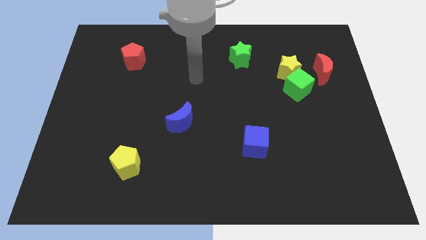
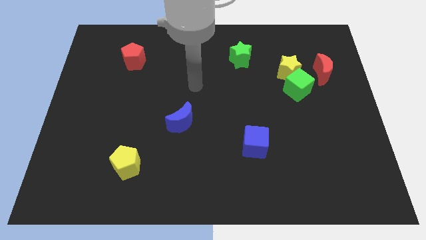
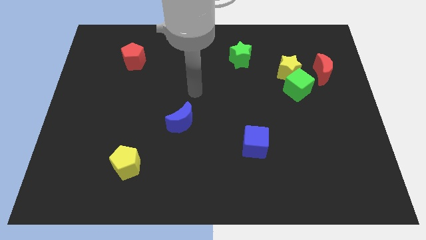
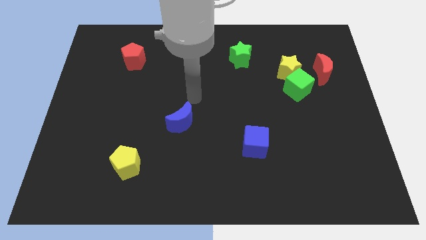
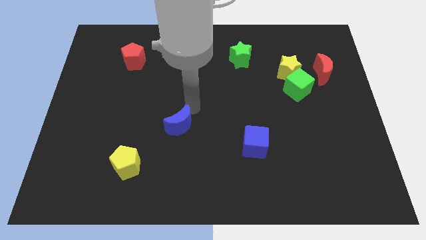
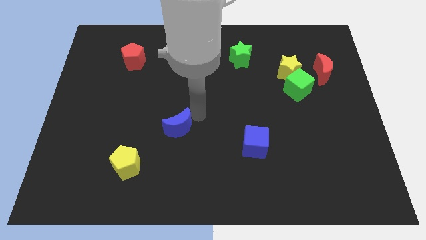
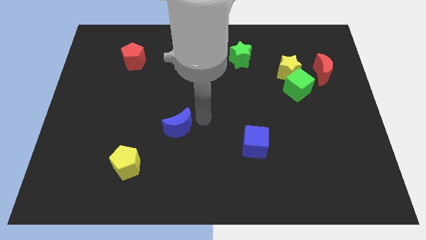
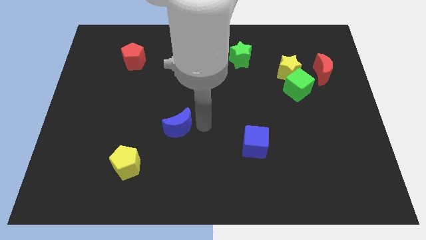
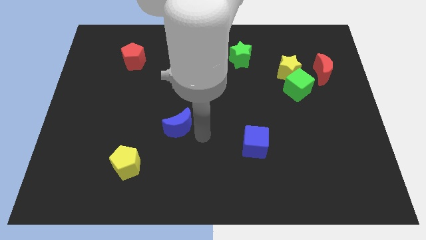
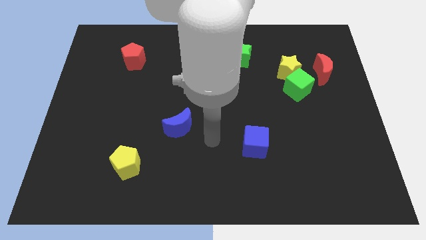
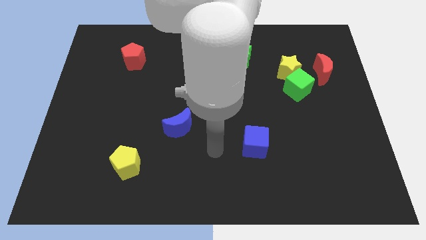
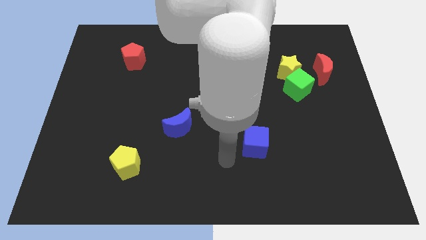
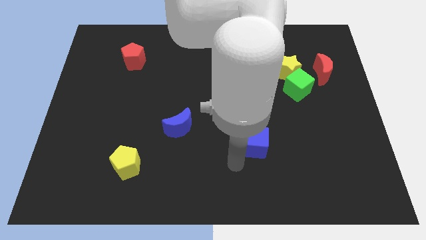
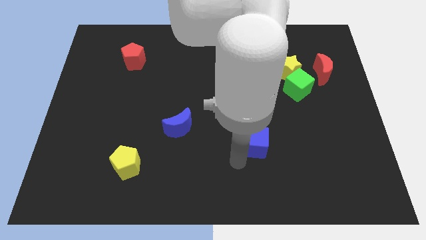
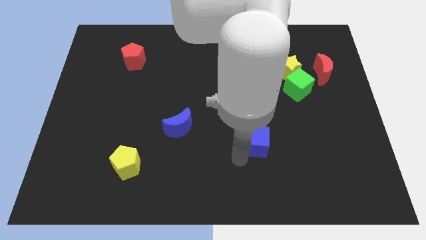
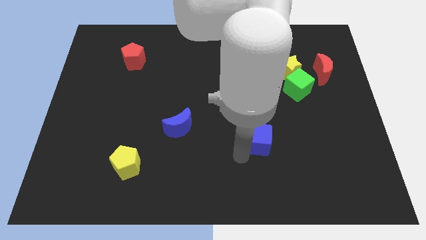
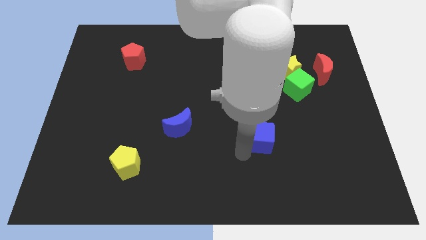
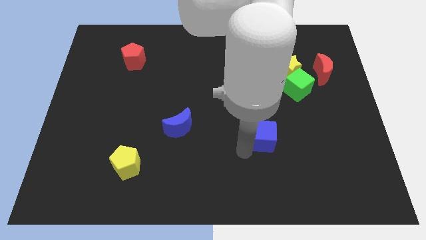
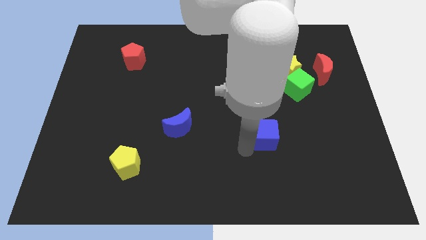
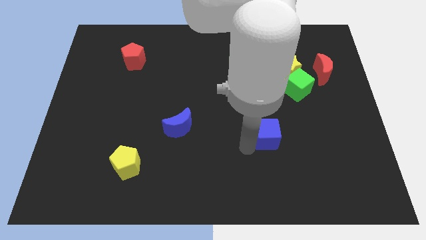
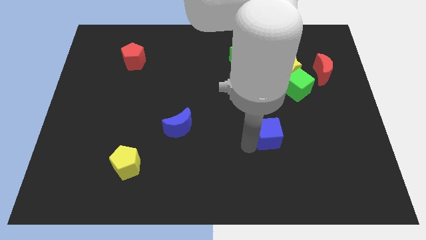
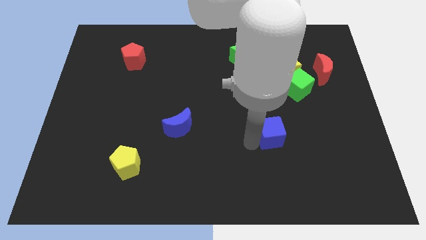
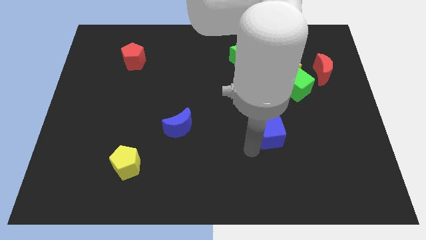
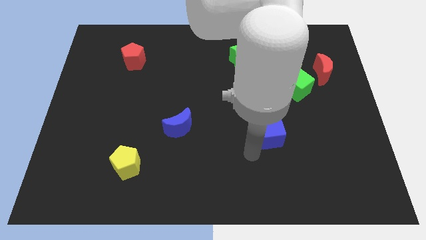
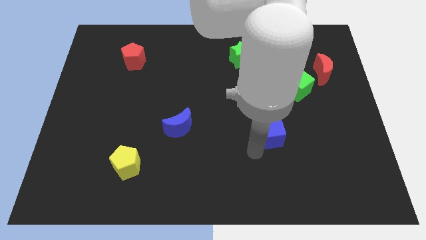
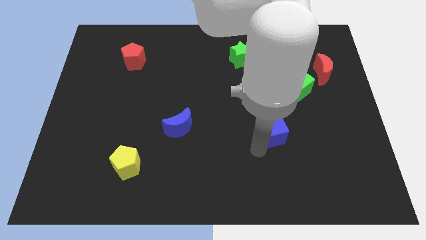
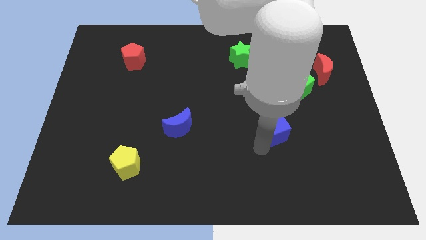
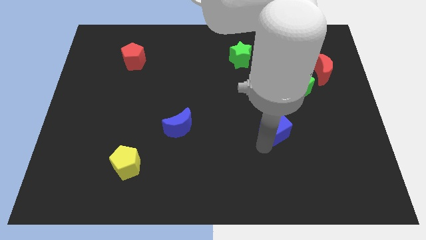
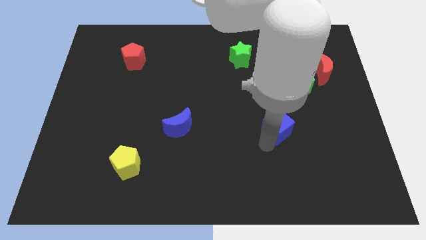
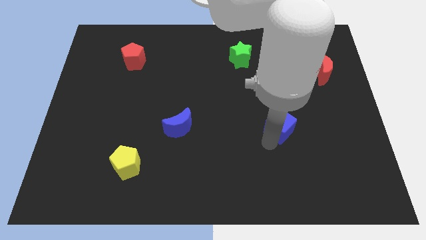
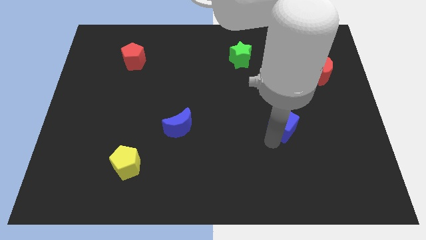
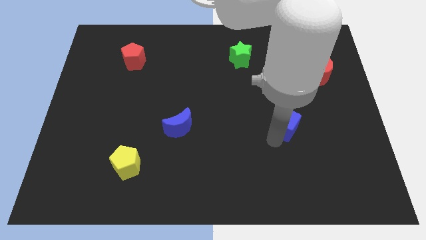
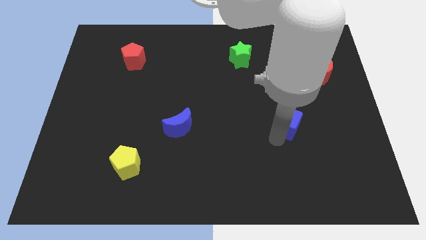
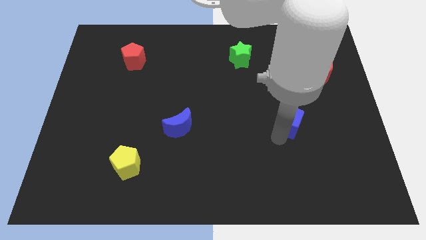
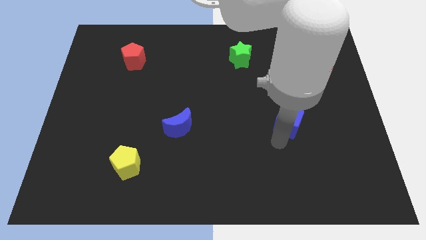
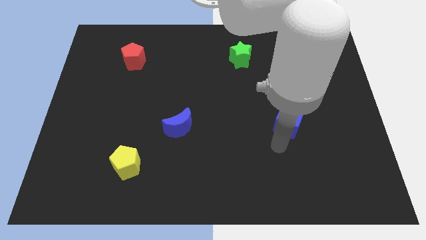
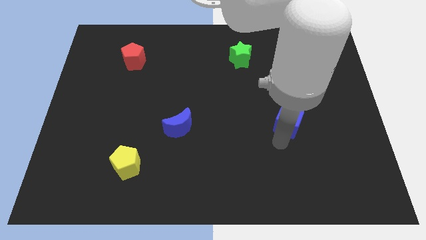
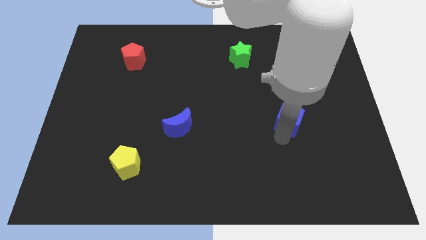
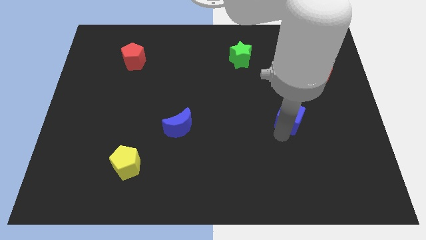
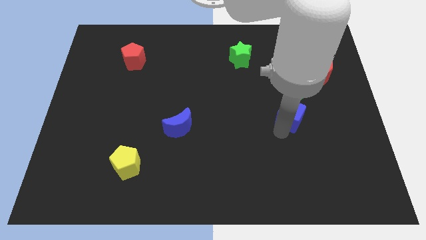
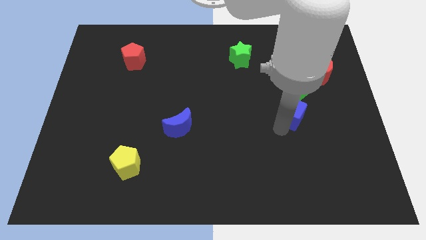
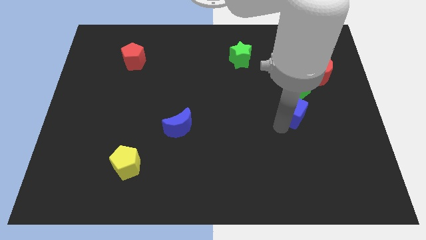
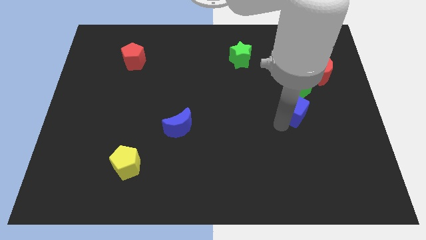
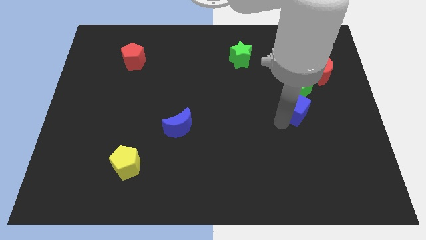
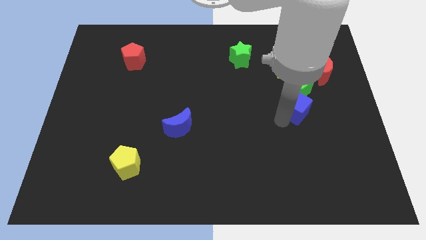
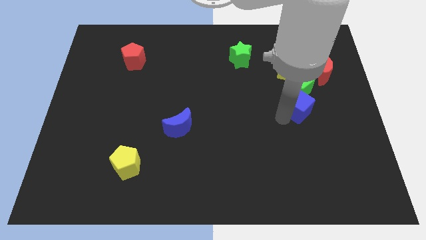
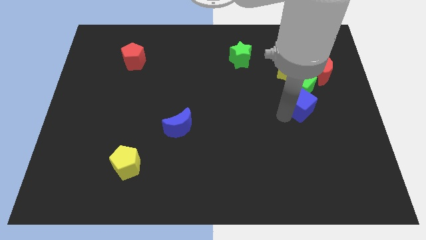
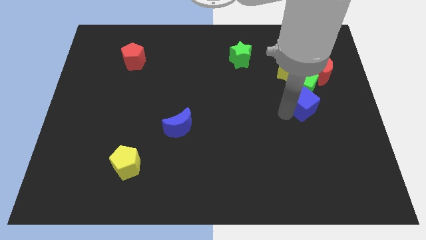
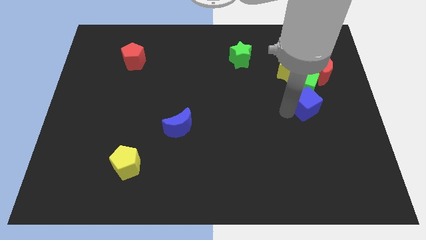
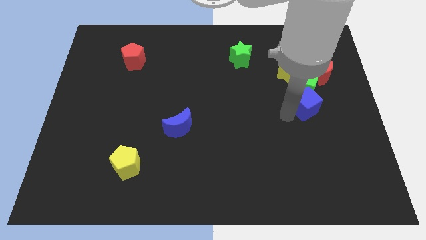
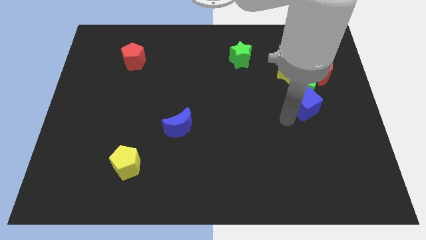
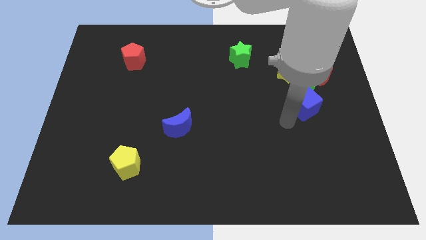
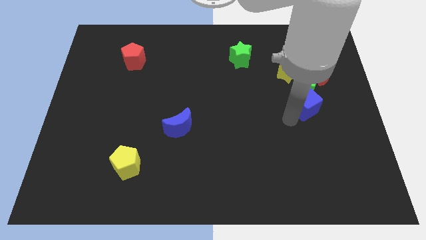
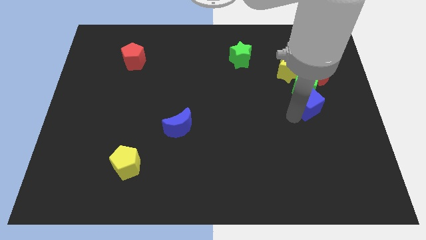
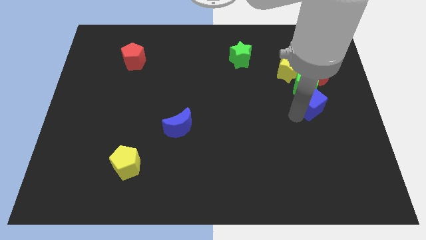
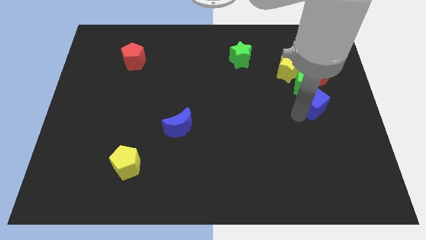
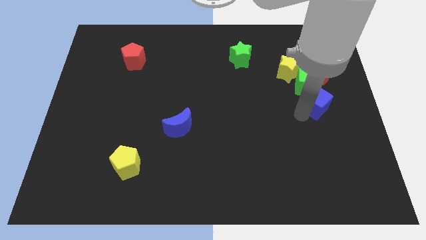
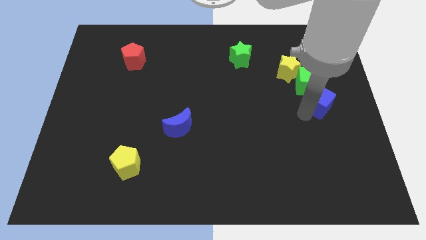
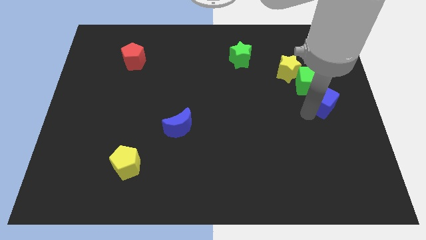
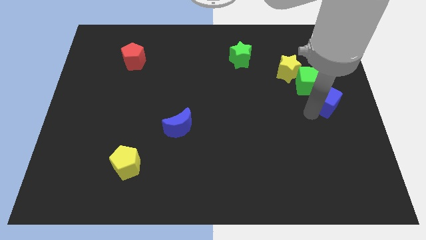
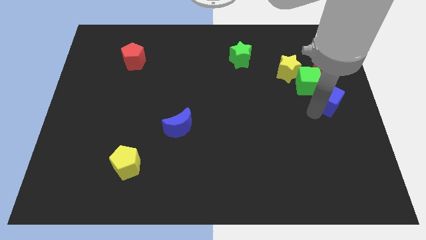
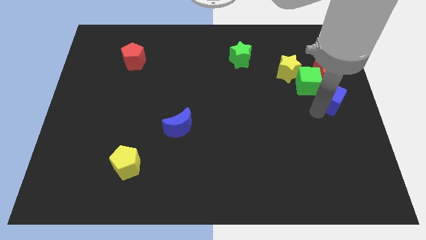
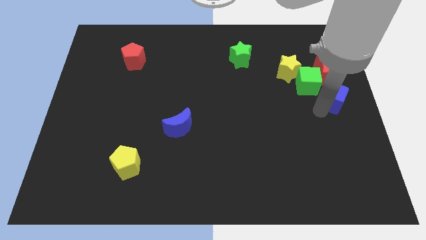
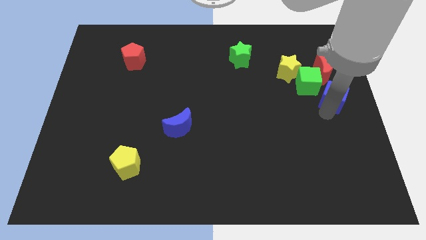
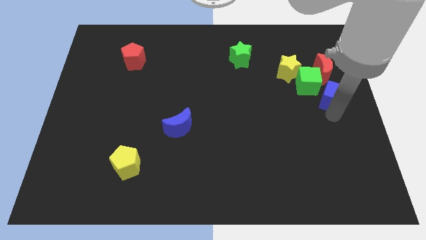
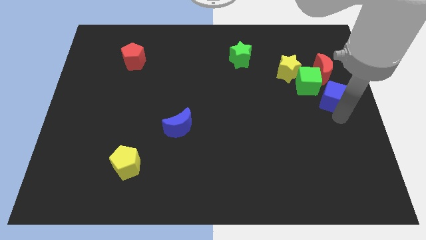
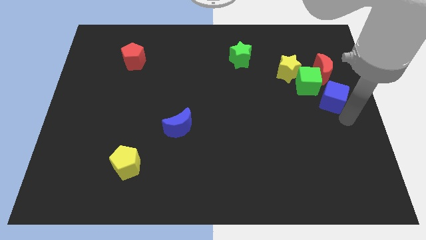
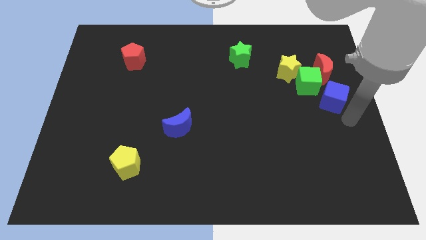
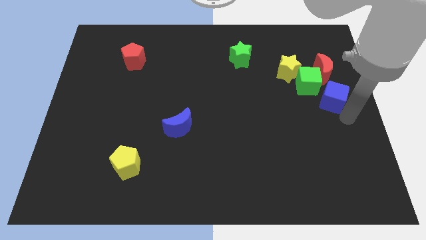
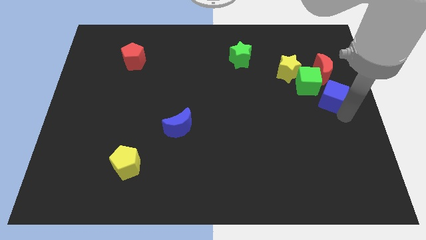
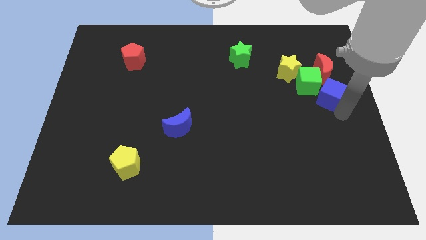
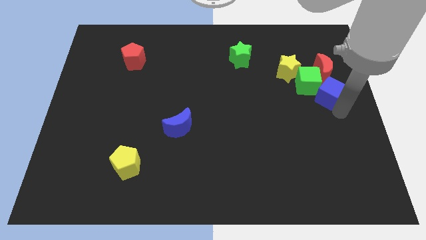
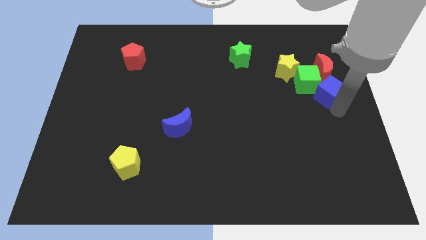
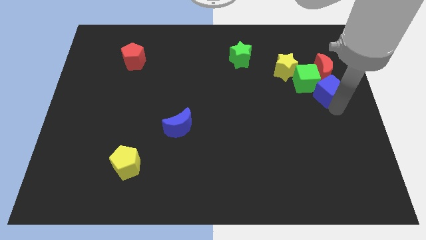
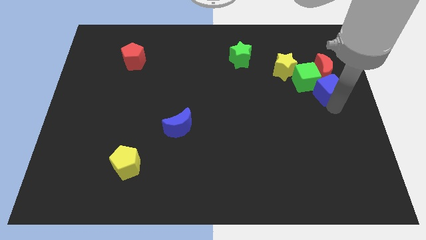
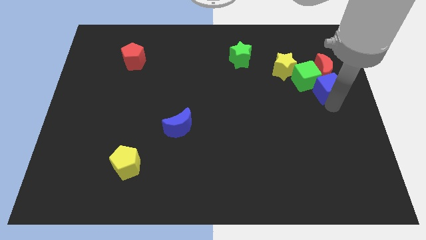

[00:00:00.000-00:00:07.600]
move the blue cube close to the red moon
